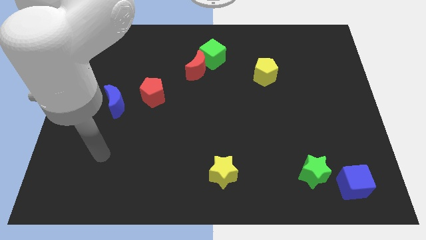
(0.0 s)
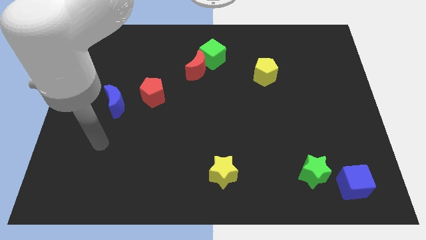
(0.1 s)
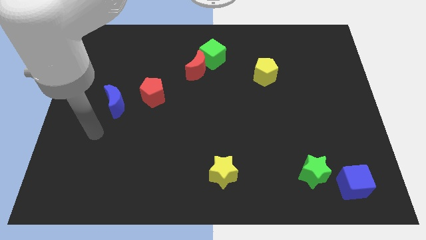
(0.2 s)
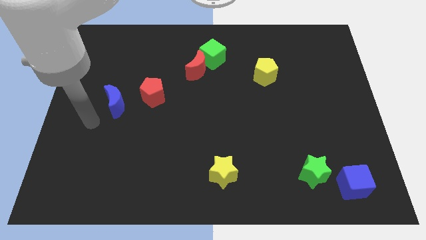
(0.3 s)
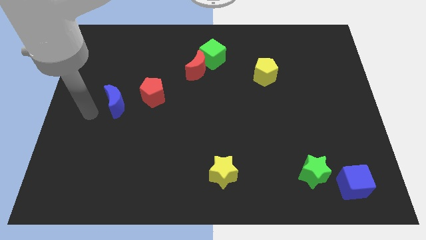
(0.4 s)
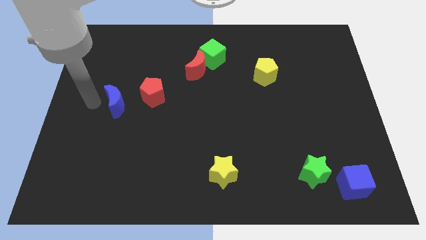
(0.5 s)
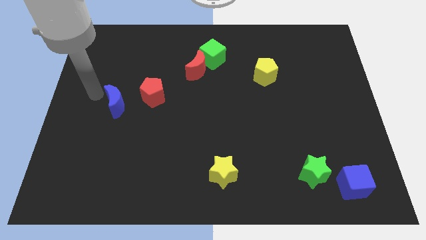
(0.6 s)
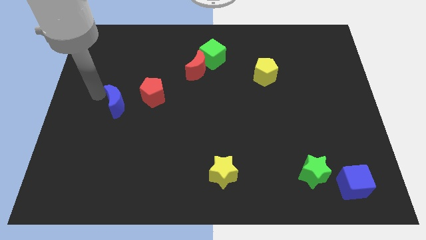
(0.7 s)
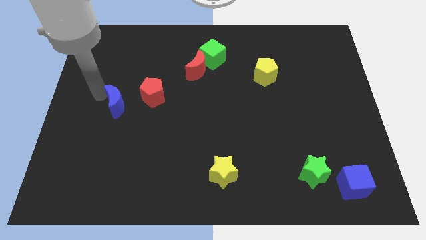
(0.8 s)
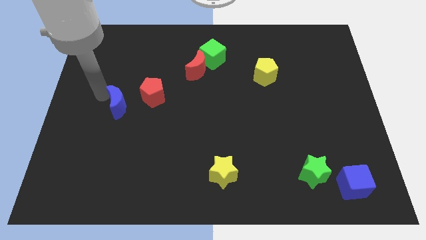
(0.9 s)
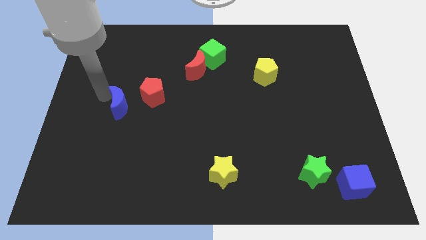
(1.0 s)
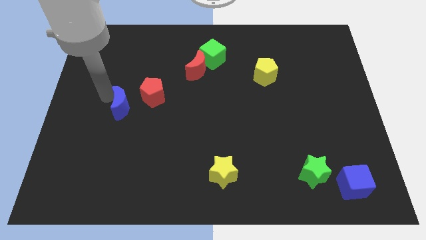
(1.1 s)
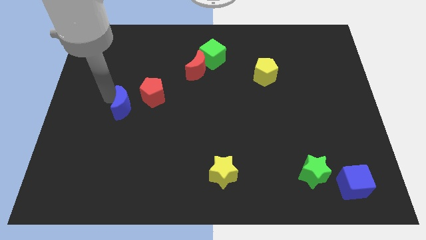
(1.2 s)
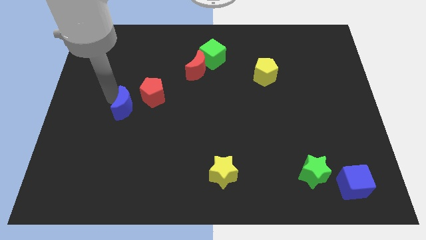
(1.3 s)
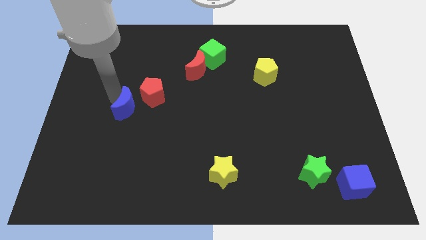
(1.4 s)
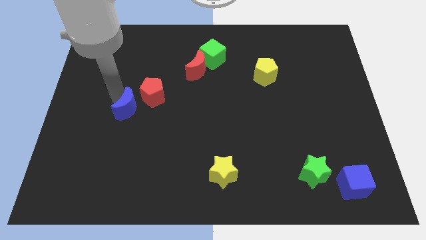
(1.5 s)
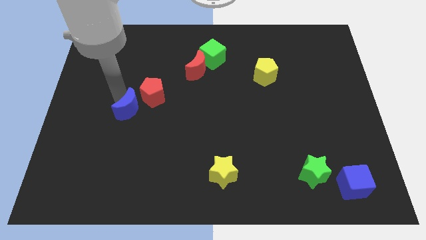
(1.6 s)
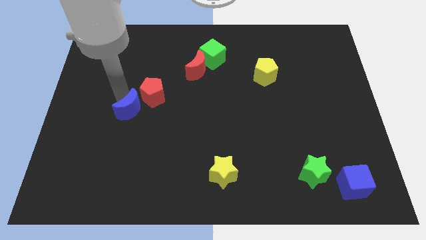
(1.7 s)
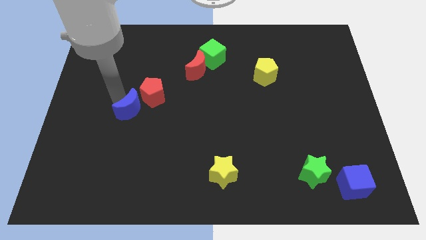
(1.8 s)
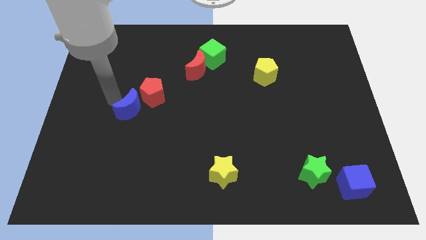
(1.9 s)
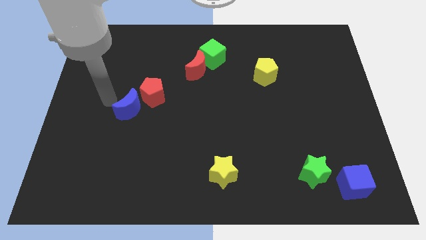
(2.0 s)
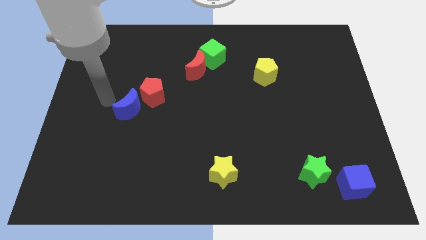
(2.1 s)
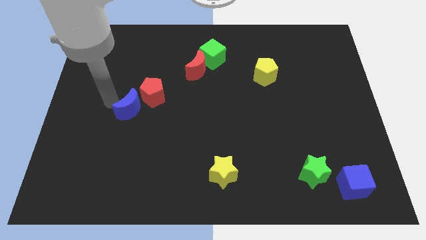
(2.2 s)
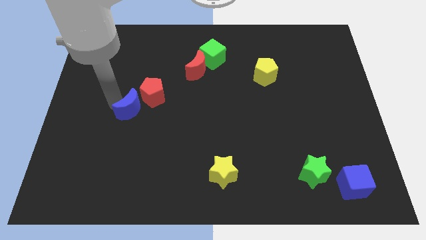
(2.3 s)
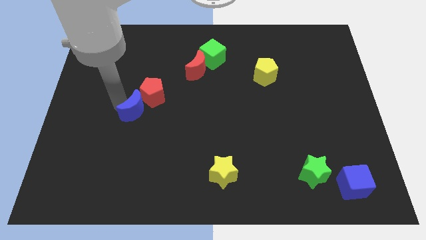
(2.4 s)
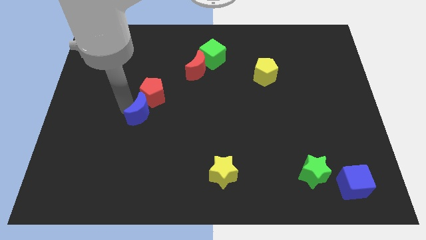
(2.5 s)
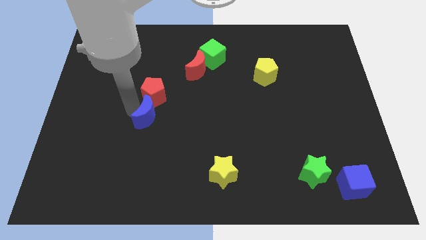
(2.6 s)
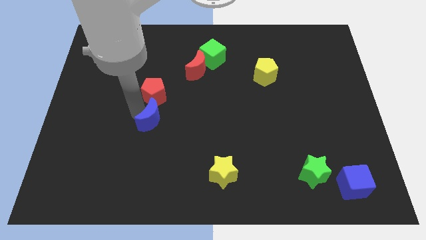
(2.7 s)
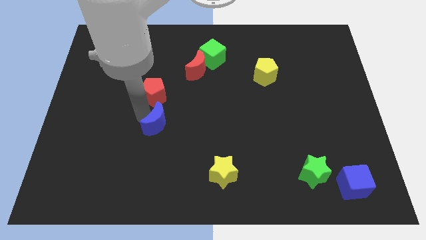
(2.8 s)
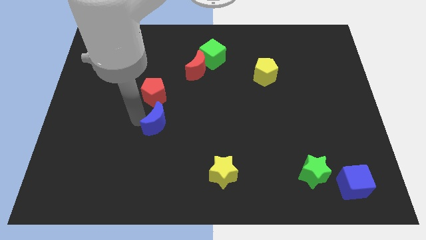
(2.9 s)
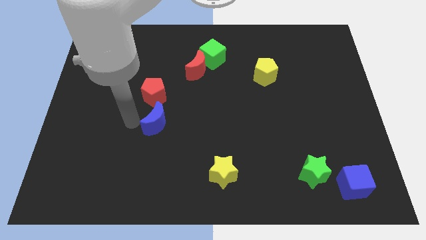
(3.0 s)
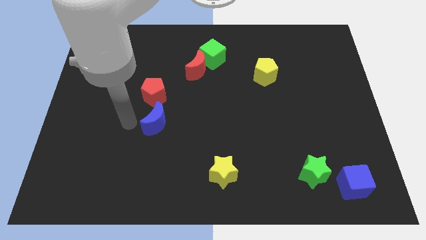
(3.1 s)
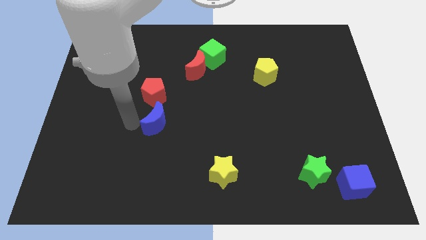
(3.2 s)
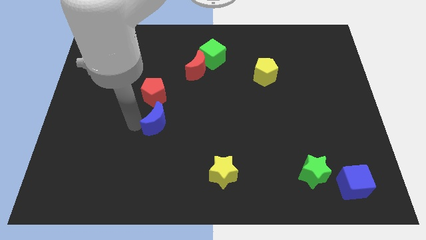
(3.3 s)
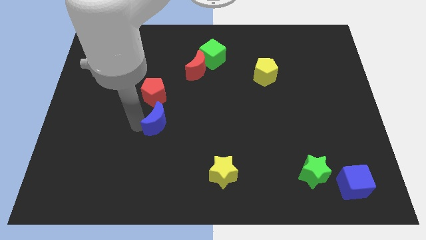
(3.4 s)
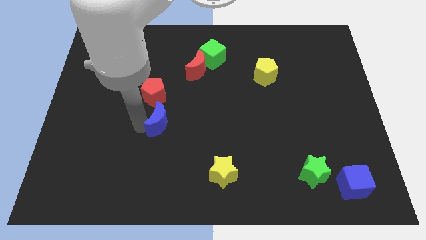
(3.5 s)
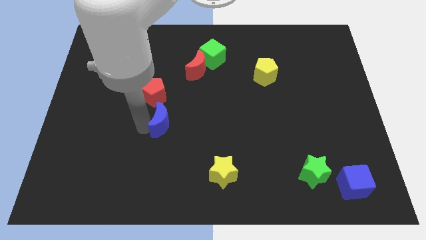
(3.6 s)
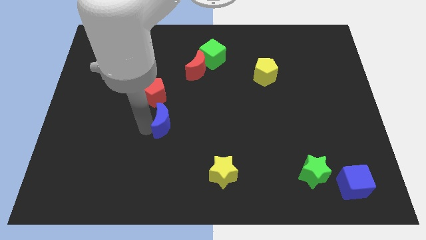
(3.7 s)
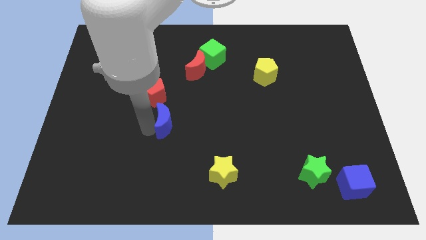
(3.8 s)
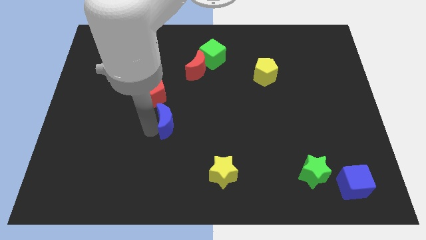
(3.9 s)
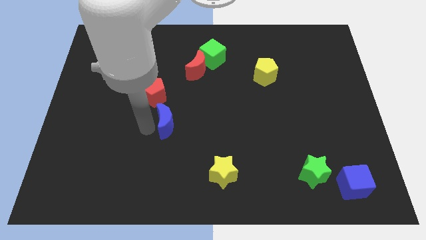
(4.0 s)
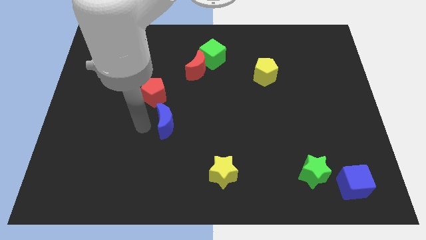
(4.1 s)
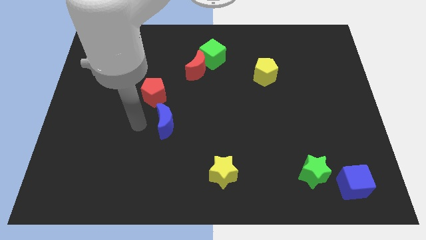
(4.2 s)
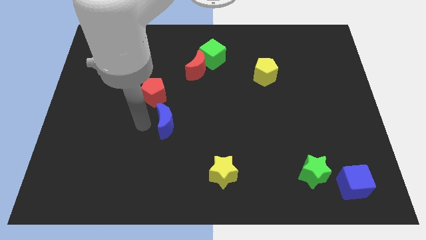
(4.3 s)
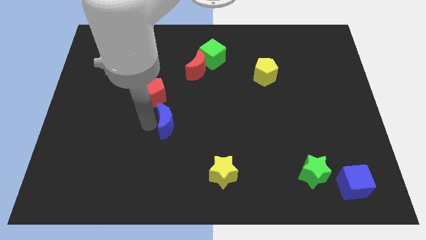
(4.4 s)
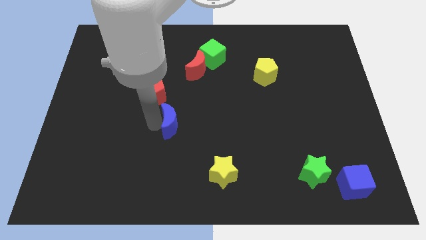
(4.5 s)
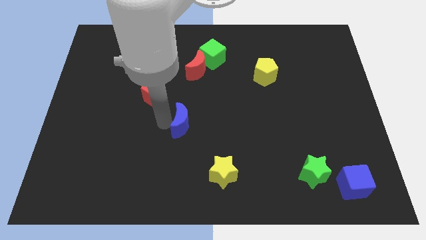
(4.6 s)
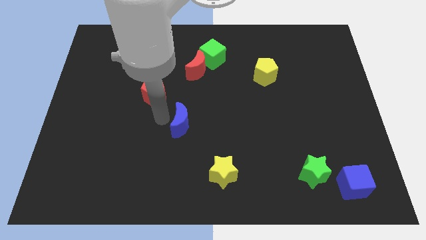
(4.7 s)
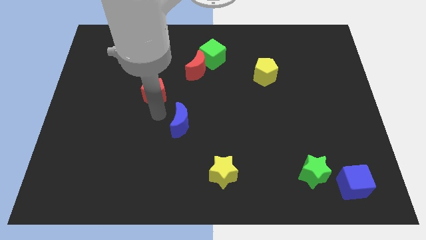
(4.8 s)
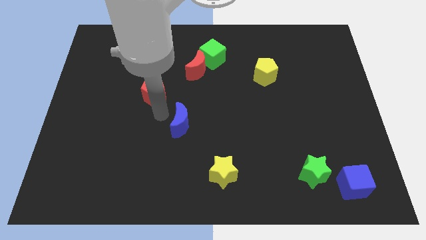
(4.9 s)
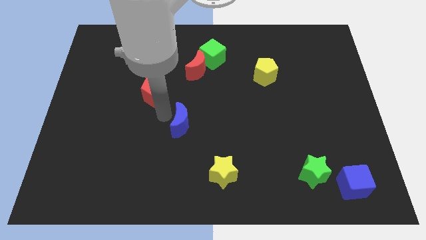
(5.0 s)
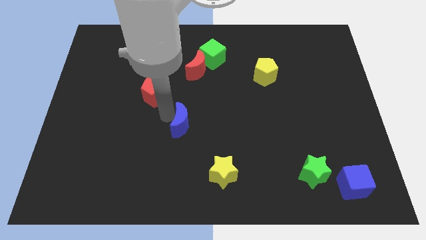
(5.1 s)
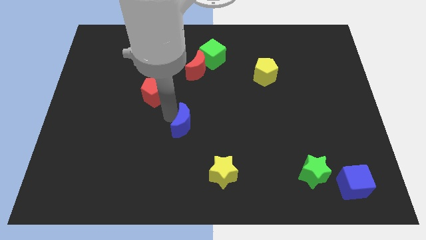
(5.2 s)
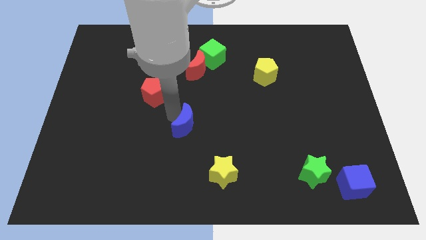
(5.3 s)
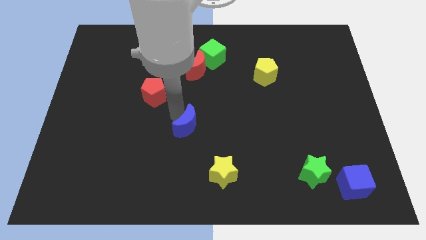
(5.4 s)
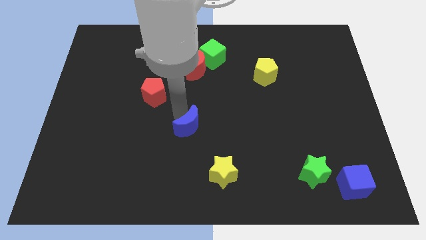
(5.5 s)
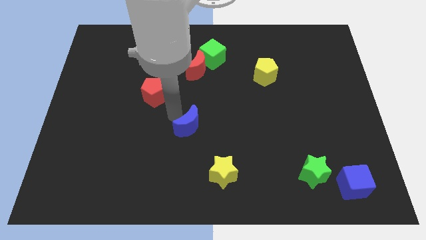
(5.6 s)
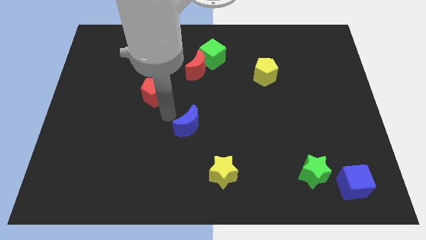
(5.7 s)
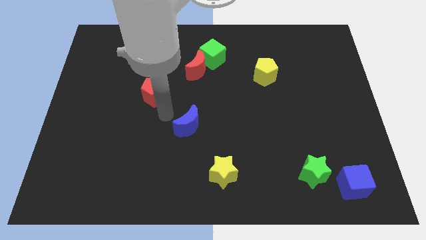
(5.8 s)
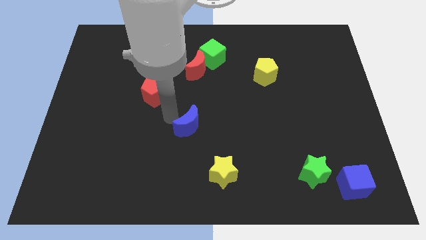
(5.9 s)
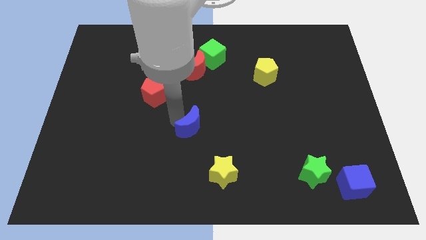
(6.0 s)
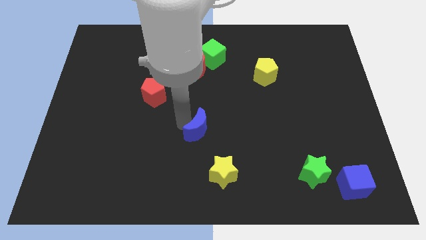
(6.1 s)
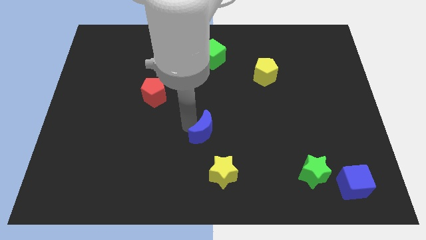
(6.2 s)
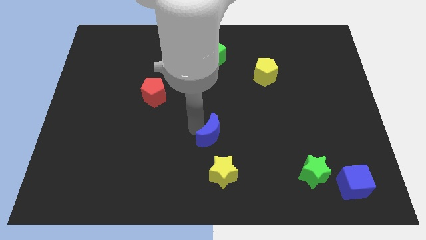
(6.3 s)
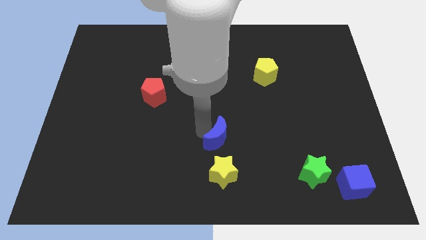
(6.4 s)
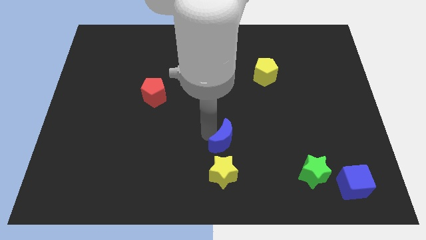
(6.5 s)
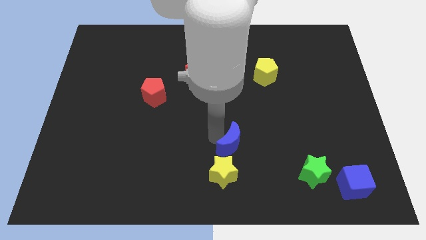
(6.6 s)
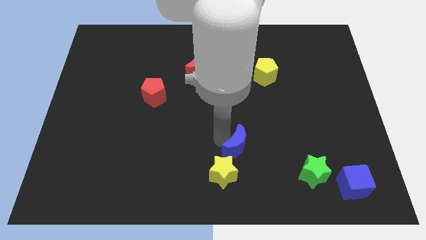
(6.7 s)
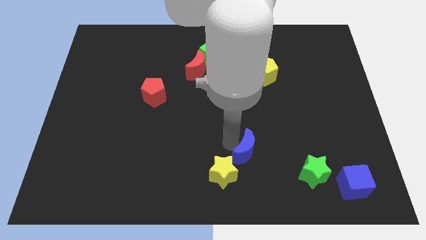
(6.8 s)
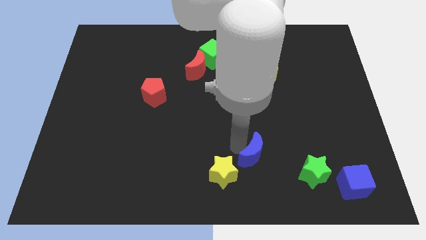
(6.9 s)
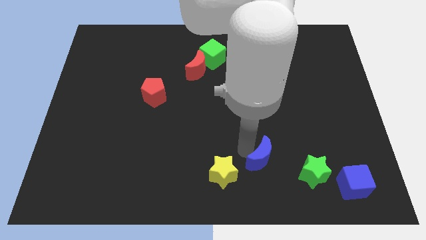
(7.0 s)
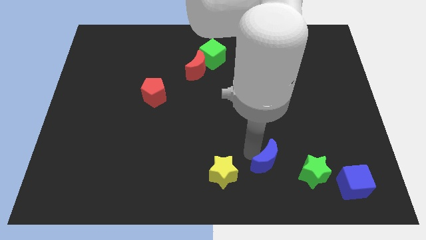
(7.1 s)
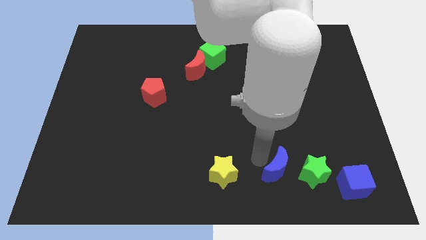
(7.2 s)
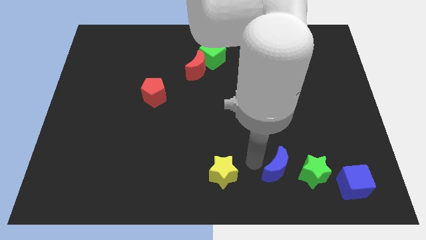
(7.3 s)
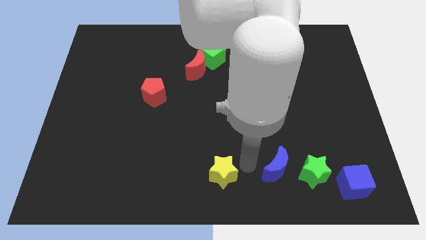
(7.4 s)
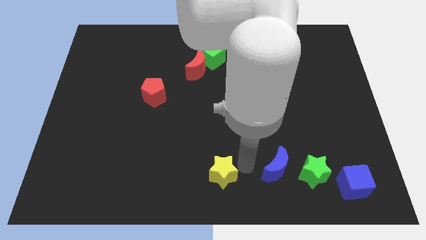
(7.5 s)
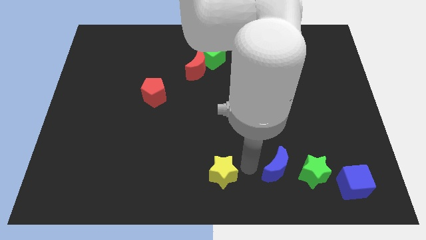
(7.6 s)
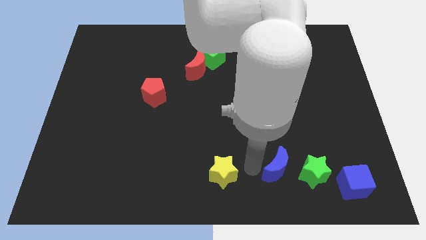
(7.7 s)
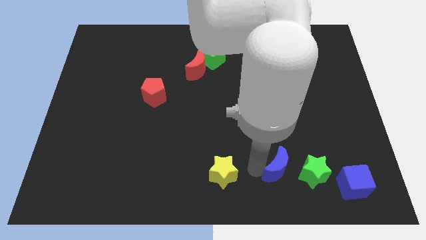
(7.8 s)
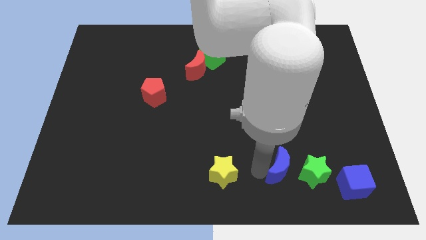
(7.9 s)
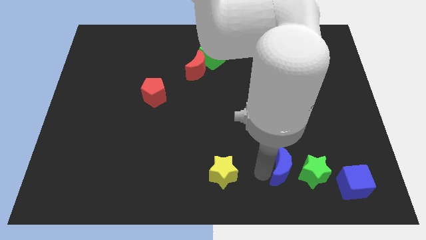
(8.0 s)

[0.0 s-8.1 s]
move the blue moon to the green star
